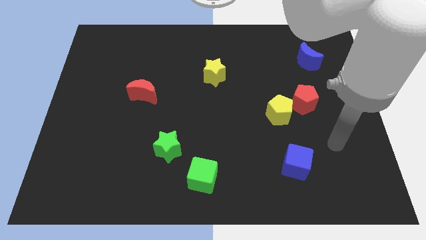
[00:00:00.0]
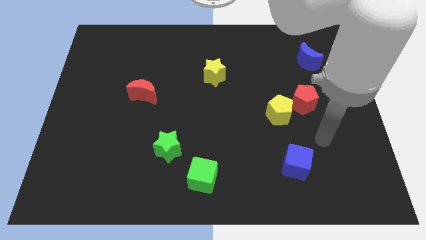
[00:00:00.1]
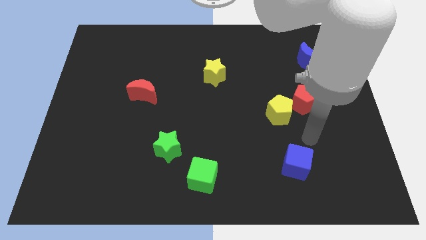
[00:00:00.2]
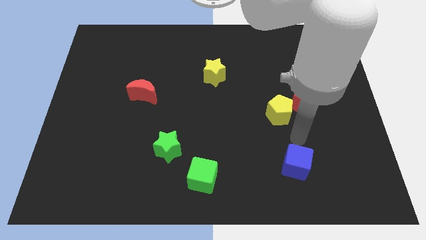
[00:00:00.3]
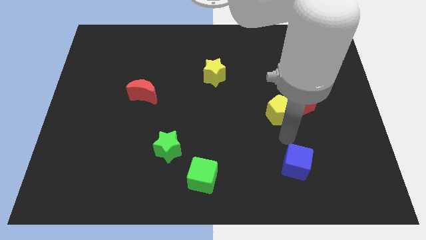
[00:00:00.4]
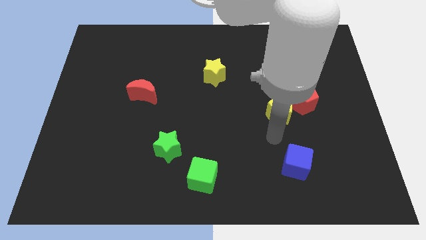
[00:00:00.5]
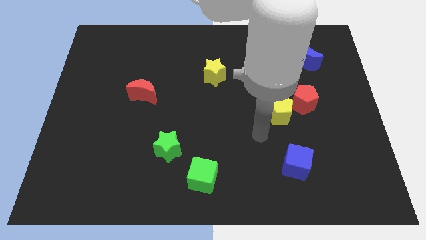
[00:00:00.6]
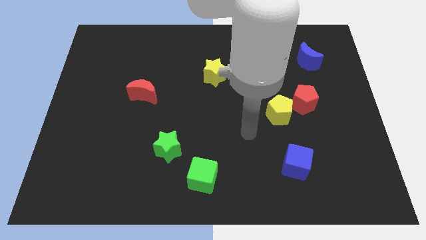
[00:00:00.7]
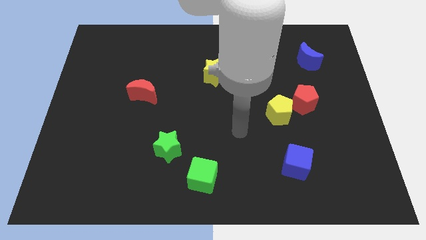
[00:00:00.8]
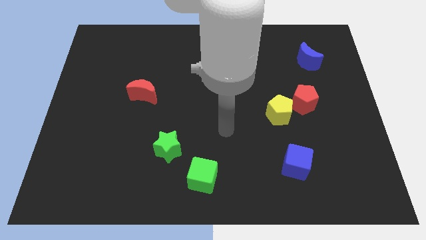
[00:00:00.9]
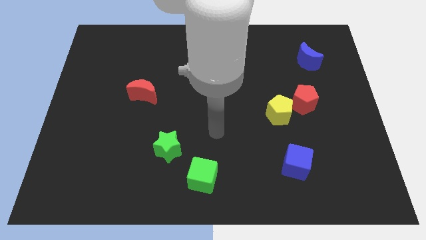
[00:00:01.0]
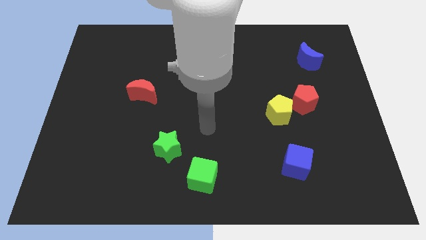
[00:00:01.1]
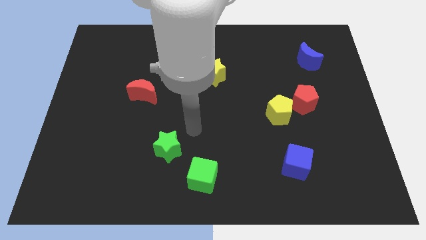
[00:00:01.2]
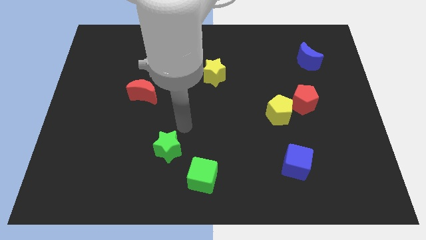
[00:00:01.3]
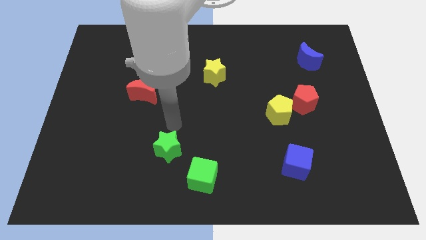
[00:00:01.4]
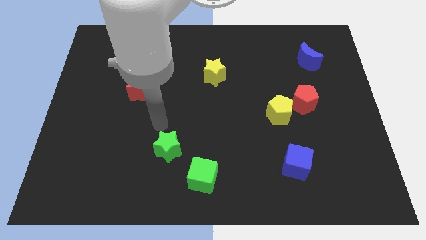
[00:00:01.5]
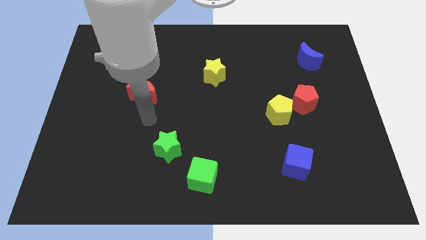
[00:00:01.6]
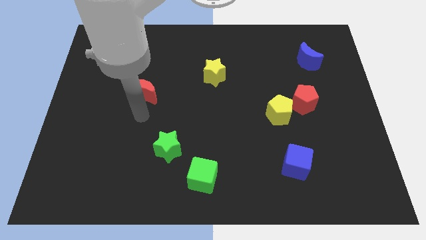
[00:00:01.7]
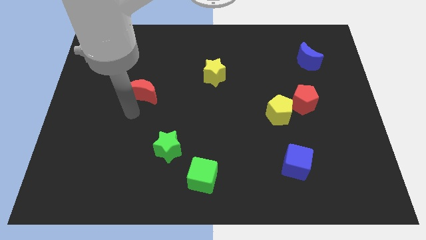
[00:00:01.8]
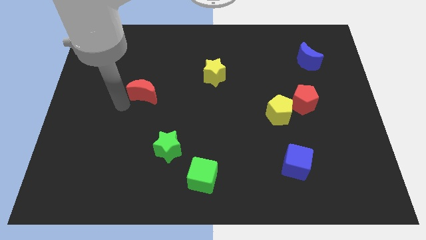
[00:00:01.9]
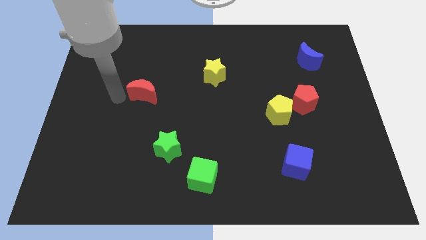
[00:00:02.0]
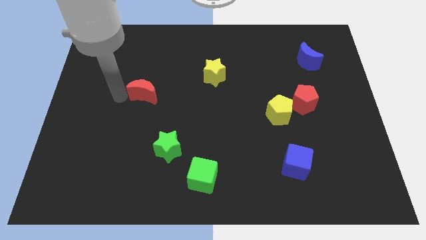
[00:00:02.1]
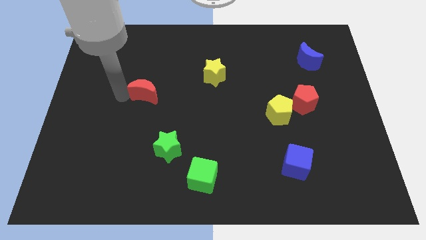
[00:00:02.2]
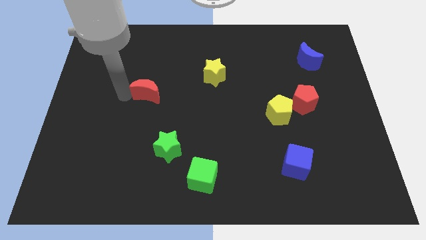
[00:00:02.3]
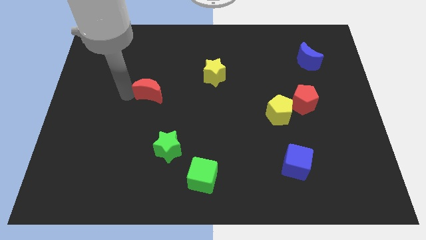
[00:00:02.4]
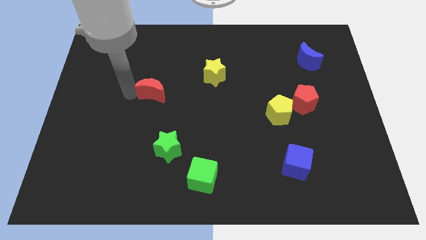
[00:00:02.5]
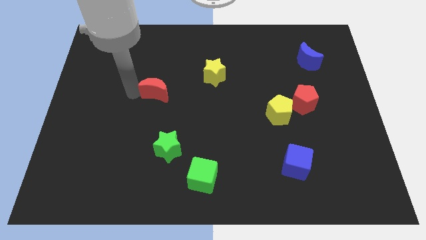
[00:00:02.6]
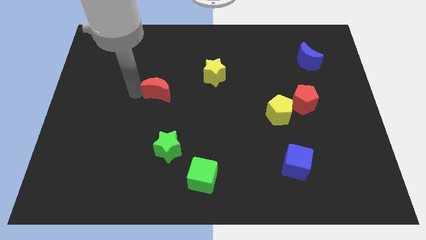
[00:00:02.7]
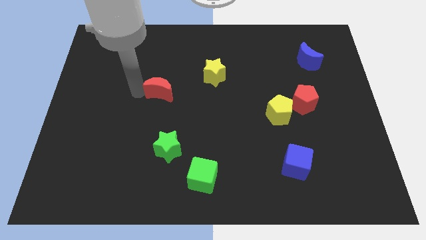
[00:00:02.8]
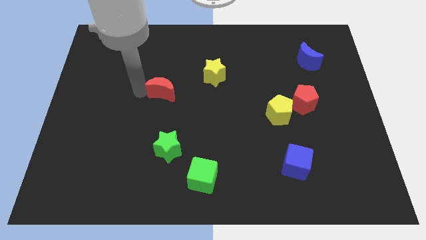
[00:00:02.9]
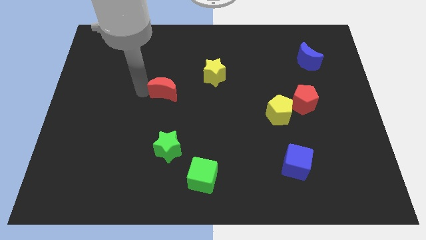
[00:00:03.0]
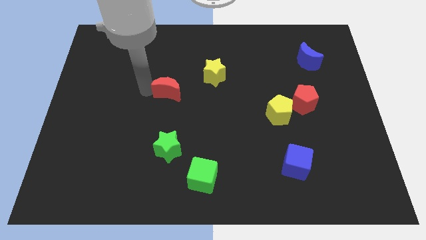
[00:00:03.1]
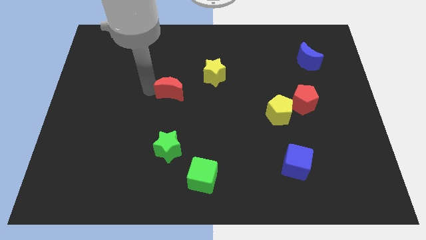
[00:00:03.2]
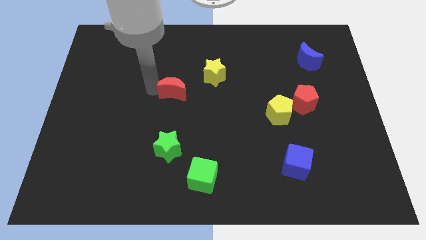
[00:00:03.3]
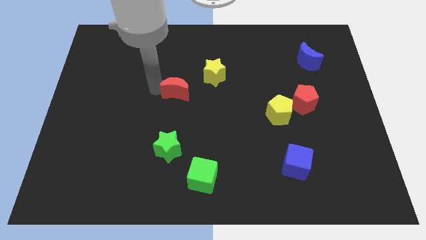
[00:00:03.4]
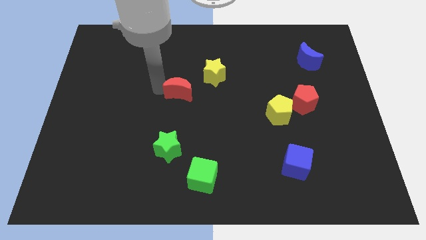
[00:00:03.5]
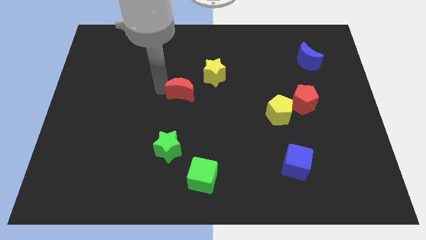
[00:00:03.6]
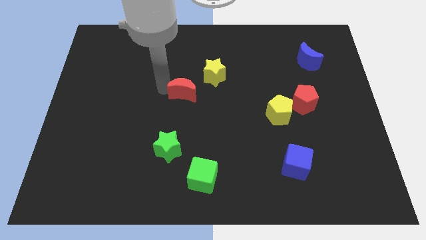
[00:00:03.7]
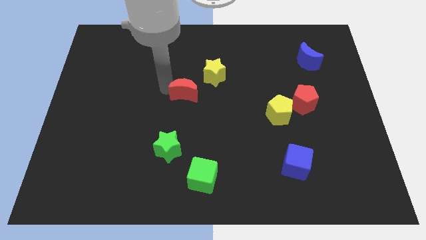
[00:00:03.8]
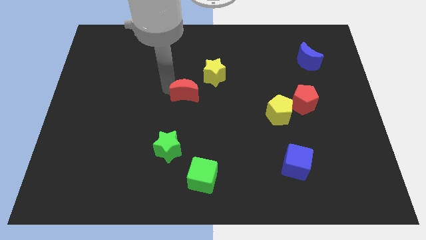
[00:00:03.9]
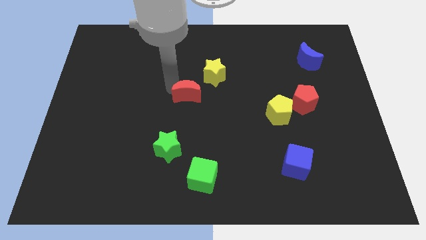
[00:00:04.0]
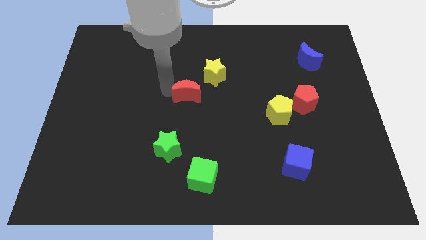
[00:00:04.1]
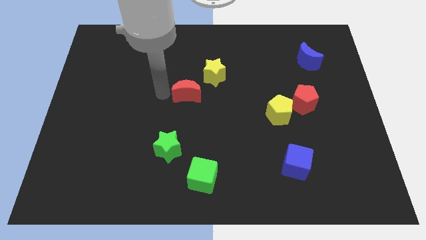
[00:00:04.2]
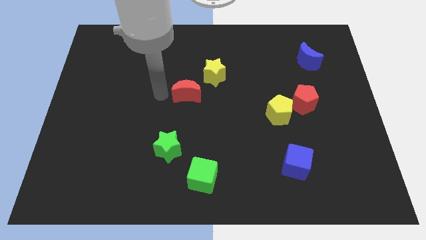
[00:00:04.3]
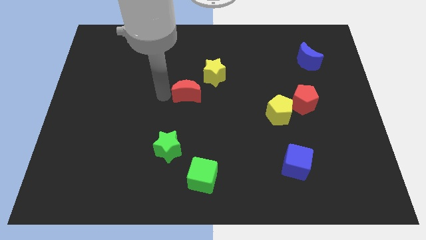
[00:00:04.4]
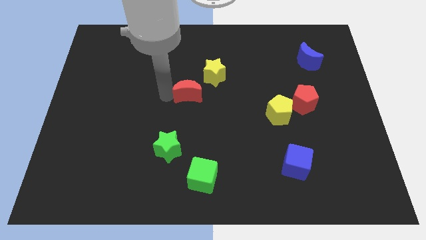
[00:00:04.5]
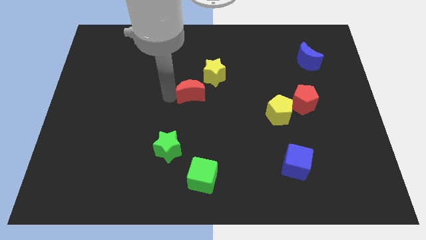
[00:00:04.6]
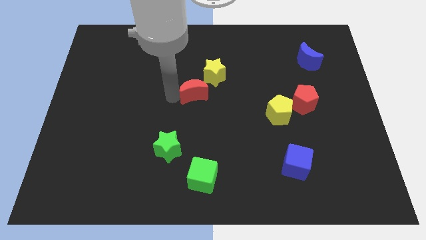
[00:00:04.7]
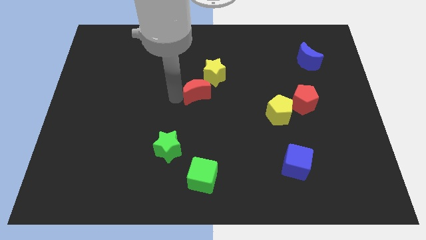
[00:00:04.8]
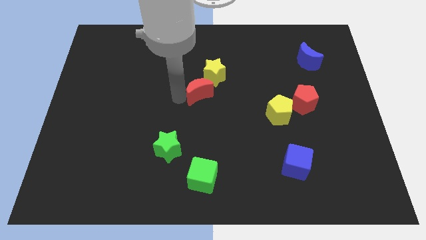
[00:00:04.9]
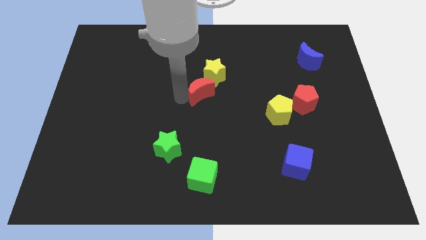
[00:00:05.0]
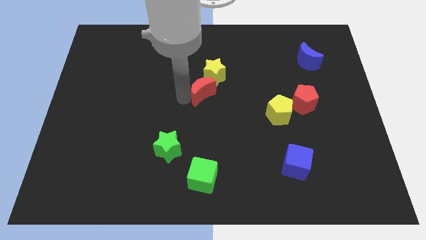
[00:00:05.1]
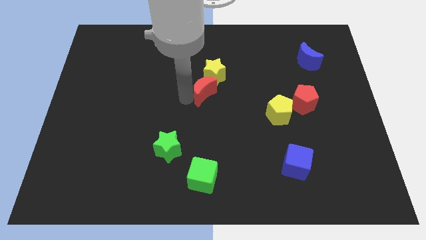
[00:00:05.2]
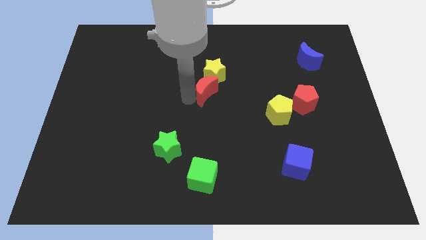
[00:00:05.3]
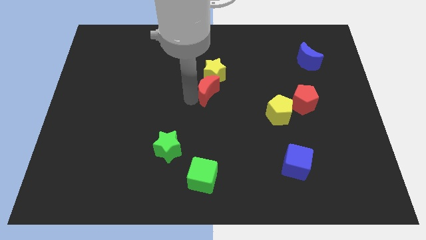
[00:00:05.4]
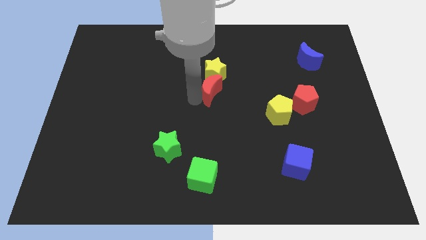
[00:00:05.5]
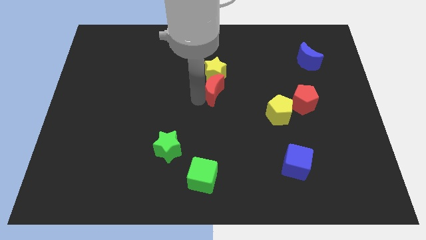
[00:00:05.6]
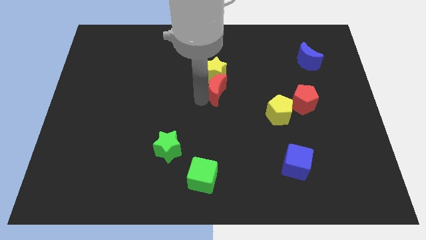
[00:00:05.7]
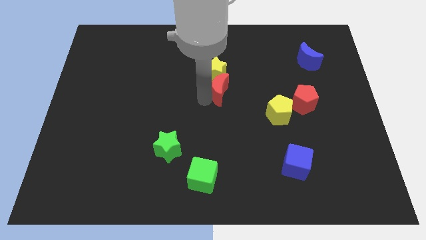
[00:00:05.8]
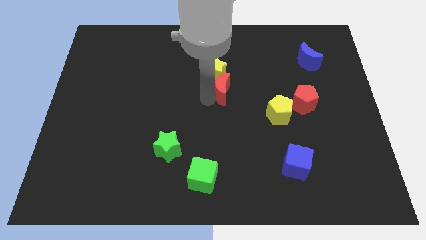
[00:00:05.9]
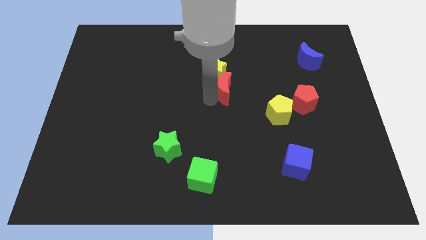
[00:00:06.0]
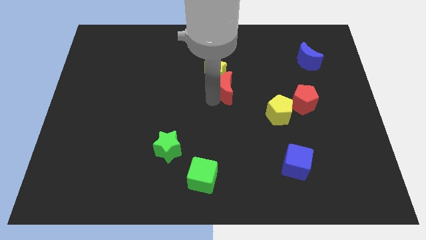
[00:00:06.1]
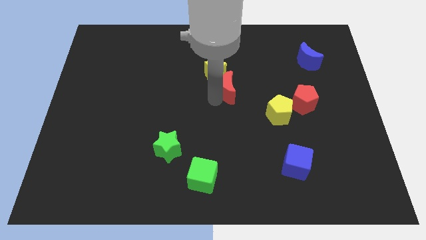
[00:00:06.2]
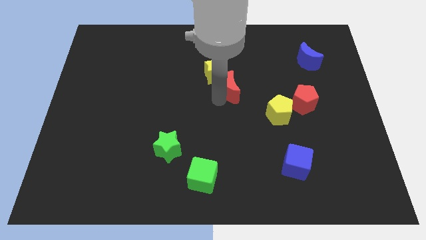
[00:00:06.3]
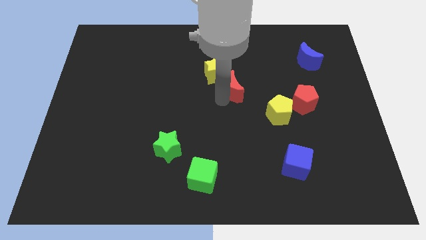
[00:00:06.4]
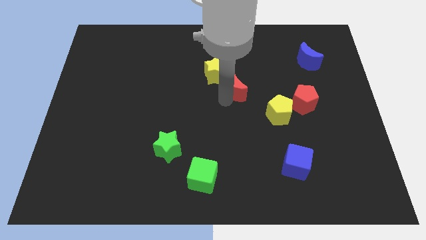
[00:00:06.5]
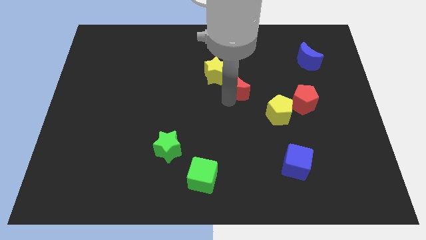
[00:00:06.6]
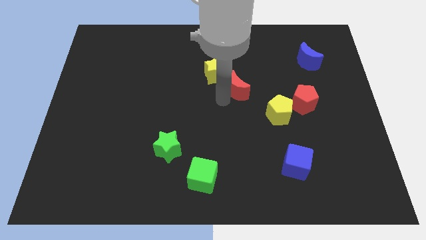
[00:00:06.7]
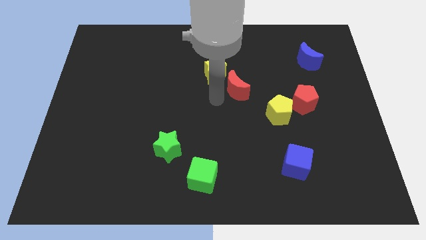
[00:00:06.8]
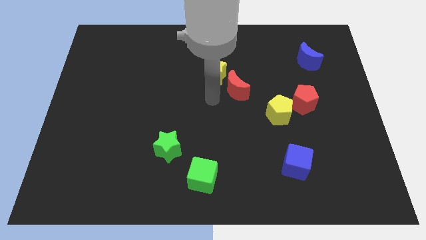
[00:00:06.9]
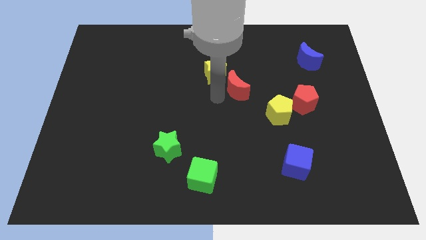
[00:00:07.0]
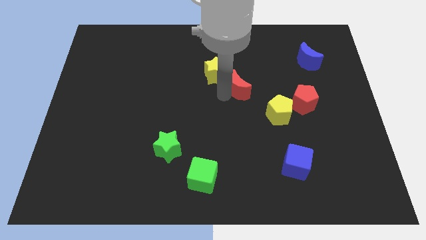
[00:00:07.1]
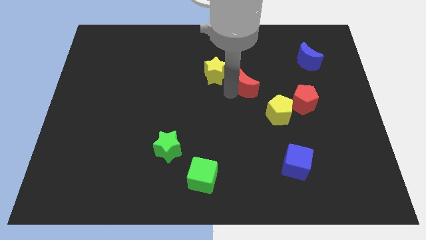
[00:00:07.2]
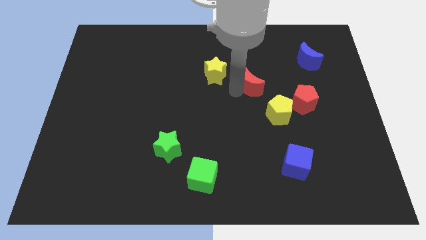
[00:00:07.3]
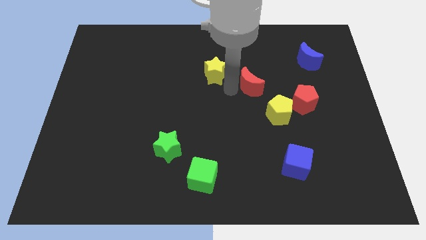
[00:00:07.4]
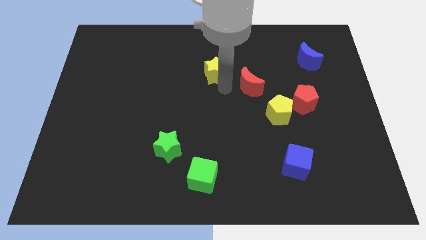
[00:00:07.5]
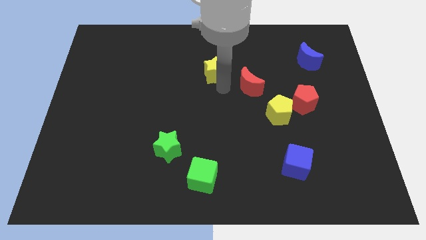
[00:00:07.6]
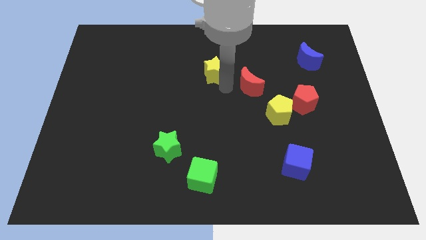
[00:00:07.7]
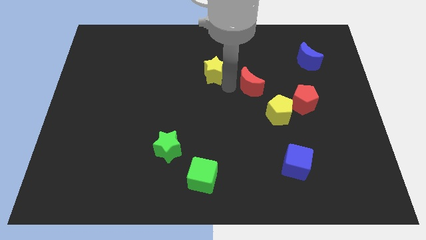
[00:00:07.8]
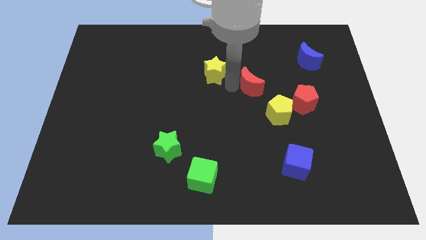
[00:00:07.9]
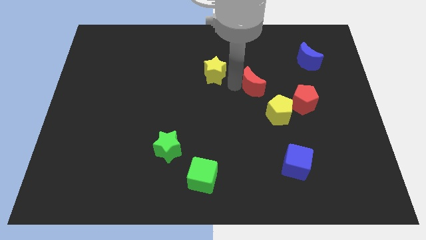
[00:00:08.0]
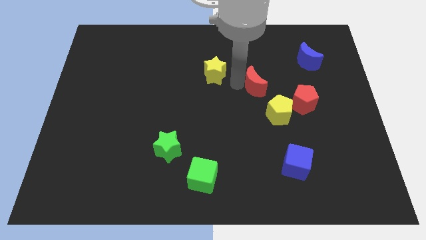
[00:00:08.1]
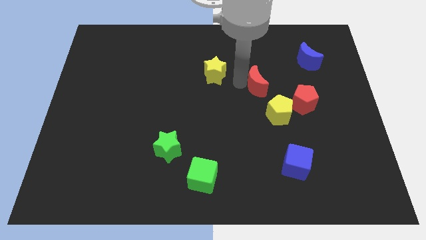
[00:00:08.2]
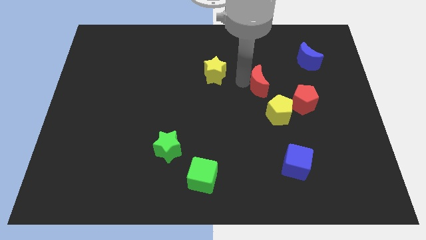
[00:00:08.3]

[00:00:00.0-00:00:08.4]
push the red moon to the top left side of the red pentagon
